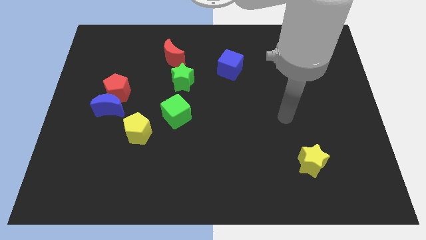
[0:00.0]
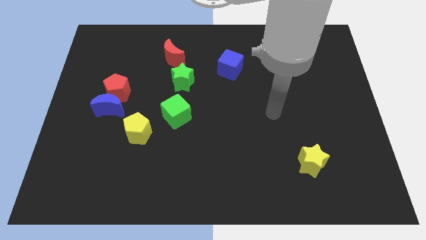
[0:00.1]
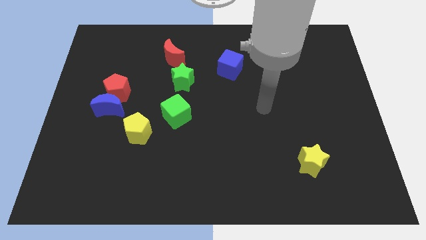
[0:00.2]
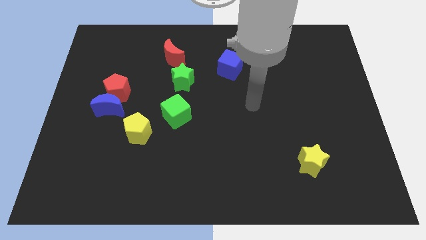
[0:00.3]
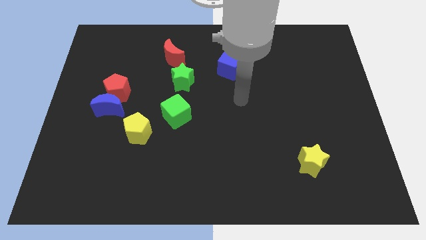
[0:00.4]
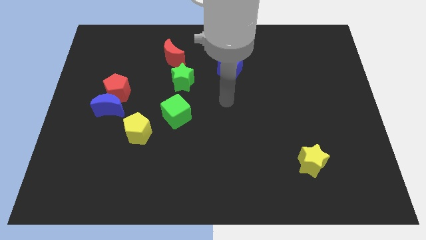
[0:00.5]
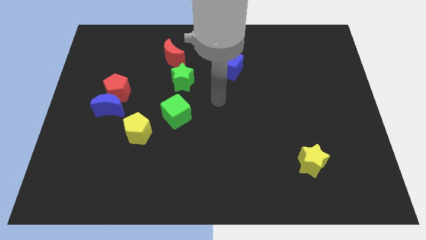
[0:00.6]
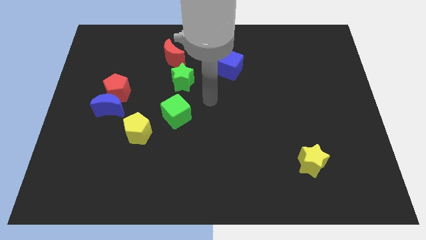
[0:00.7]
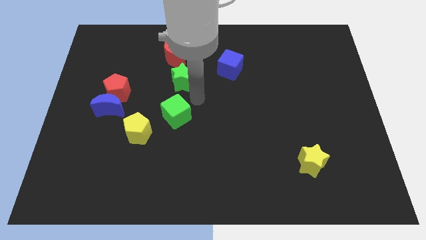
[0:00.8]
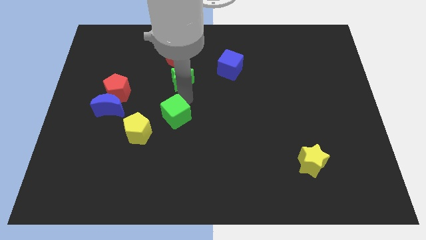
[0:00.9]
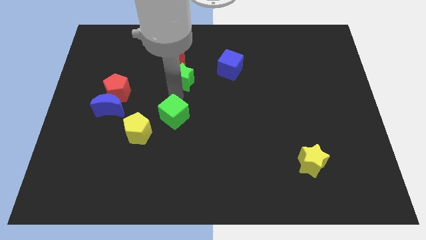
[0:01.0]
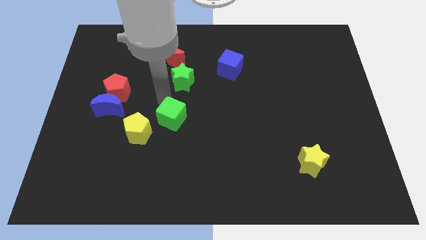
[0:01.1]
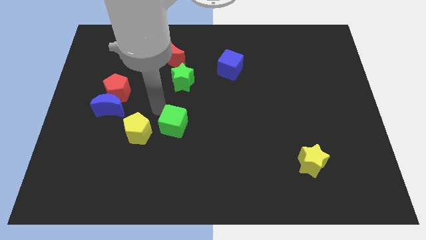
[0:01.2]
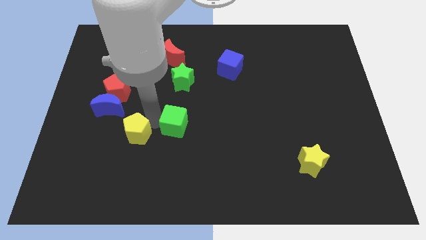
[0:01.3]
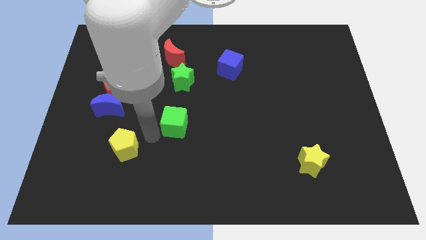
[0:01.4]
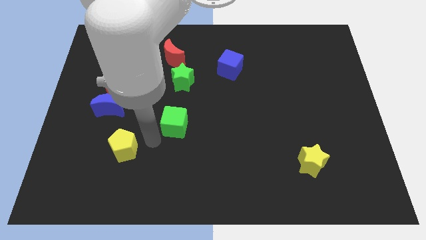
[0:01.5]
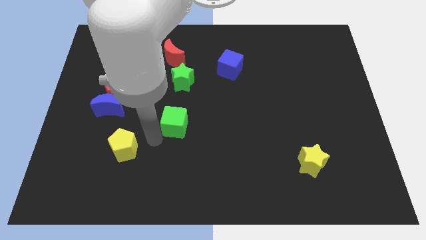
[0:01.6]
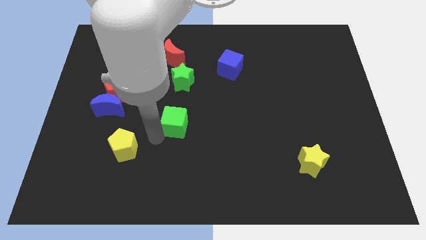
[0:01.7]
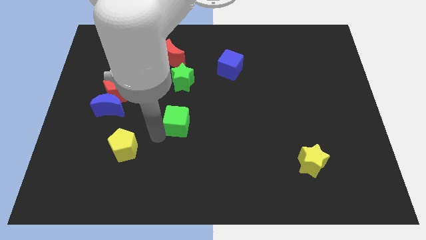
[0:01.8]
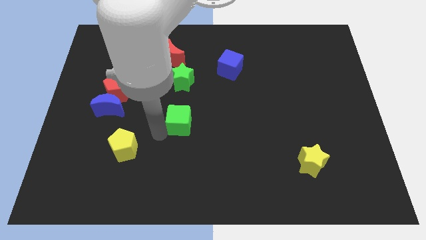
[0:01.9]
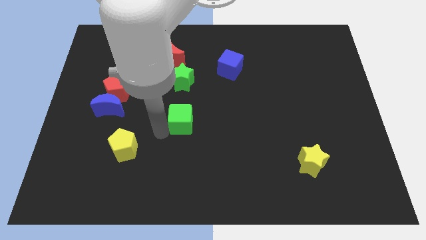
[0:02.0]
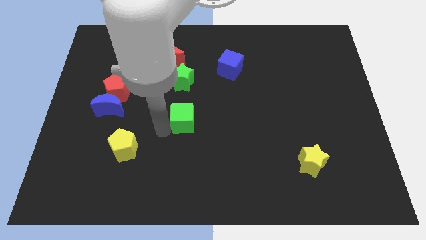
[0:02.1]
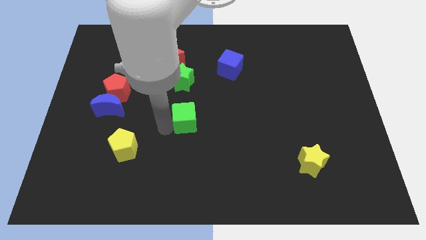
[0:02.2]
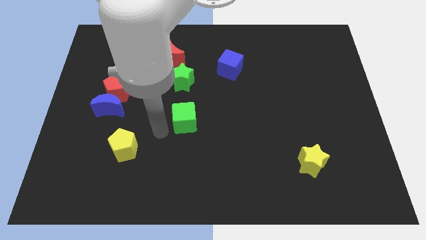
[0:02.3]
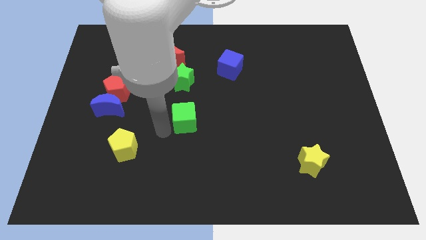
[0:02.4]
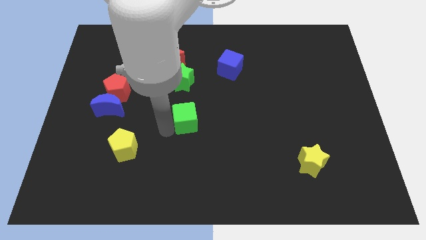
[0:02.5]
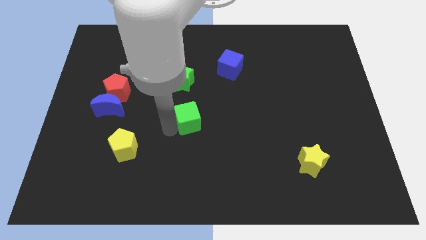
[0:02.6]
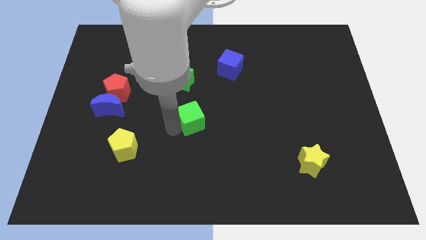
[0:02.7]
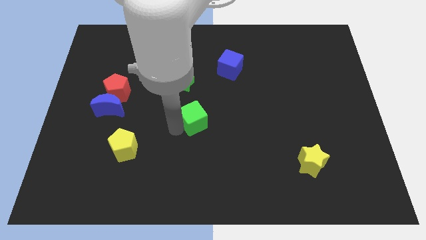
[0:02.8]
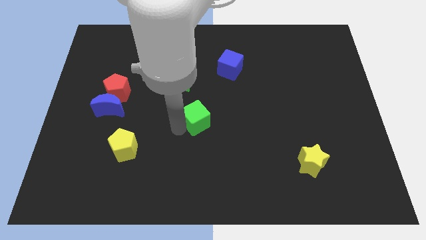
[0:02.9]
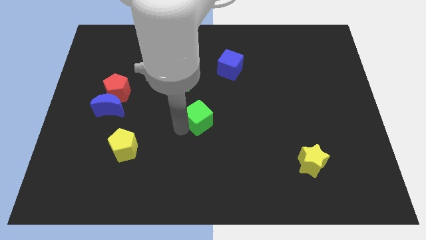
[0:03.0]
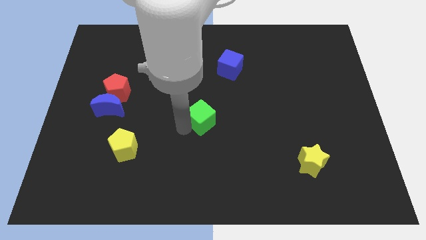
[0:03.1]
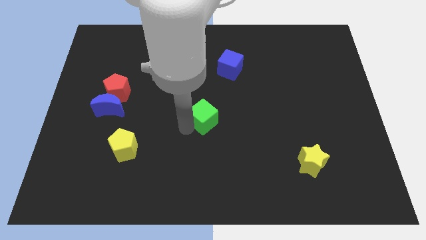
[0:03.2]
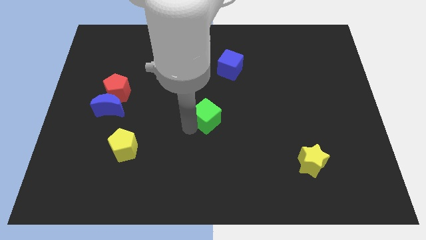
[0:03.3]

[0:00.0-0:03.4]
move the green cube to the right slightly

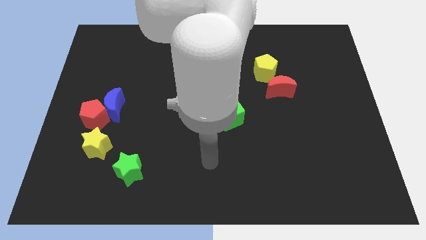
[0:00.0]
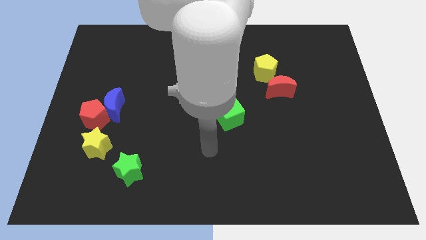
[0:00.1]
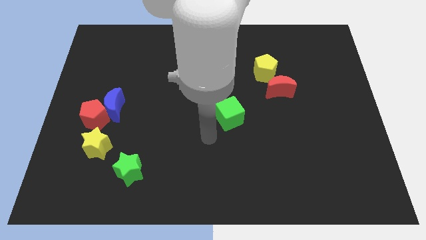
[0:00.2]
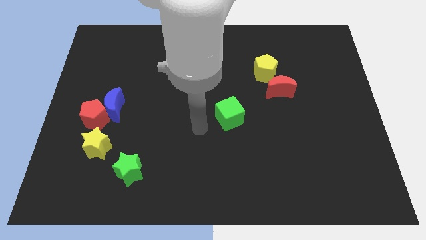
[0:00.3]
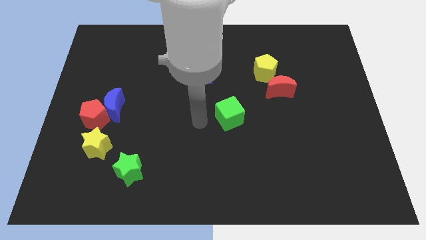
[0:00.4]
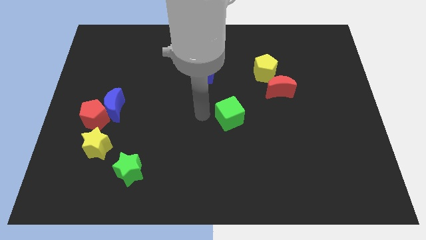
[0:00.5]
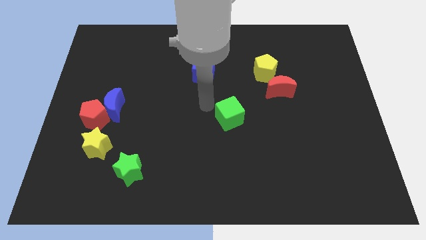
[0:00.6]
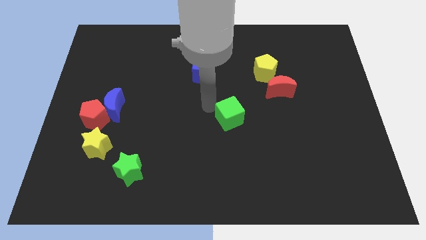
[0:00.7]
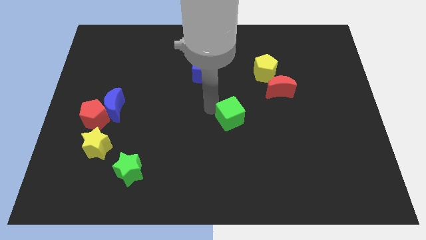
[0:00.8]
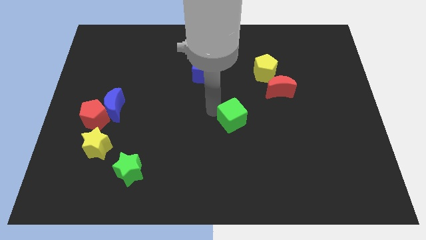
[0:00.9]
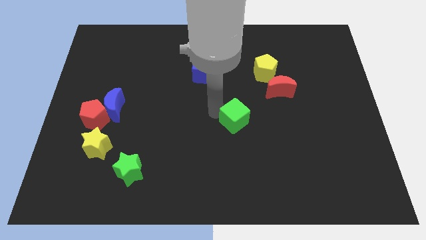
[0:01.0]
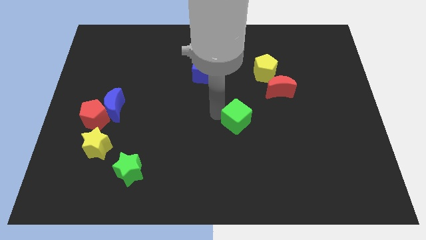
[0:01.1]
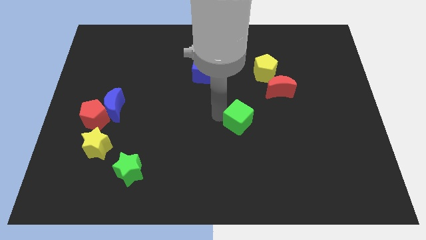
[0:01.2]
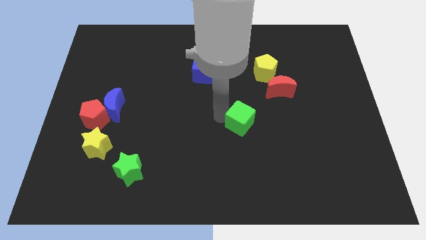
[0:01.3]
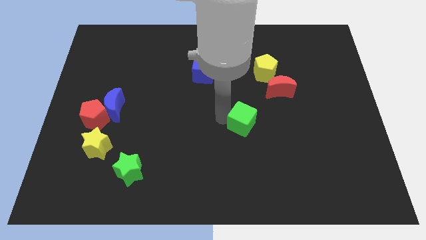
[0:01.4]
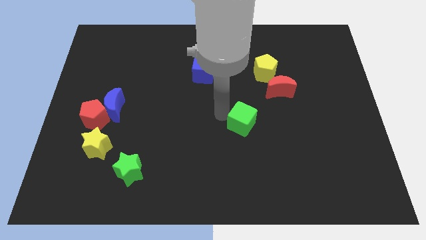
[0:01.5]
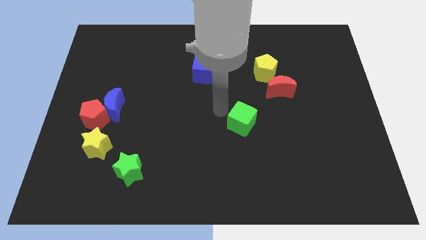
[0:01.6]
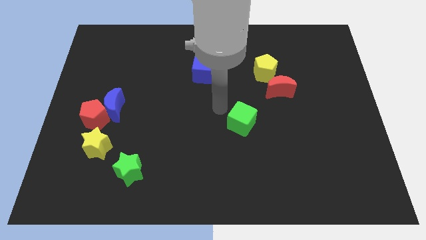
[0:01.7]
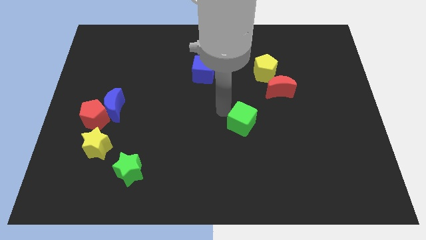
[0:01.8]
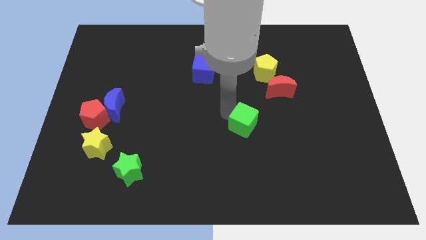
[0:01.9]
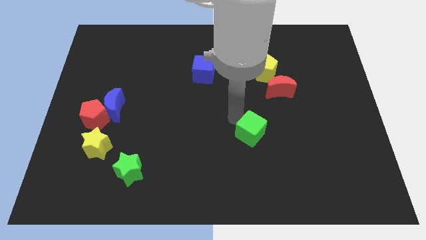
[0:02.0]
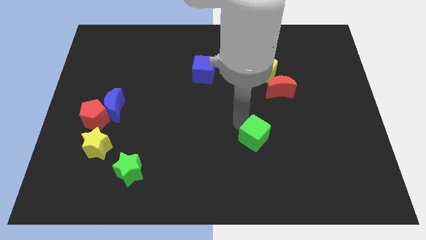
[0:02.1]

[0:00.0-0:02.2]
slightly move the green cube downwards and then right

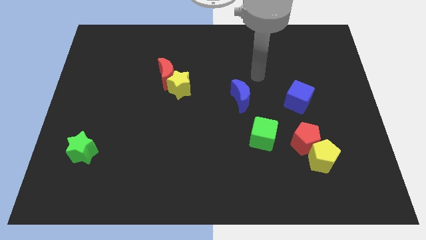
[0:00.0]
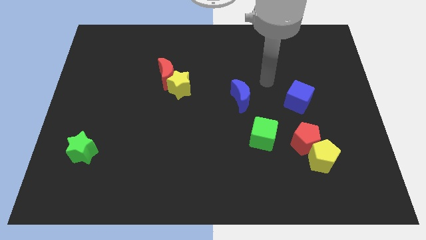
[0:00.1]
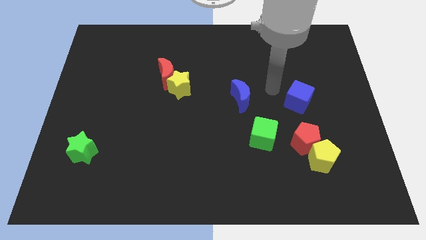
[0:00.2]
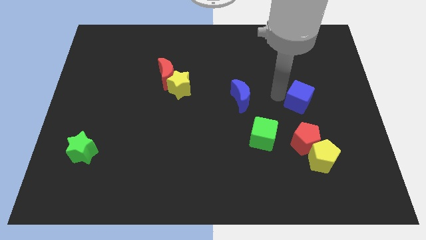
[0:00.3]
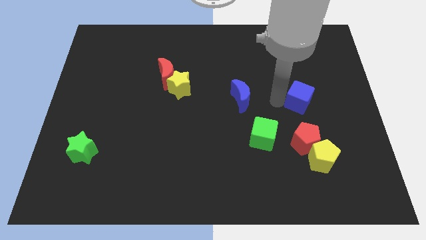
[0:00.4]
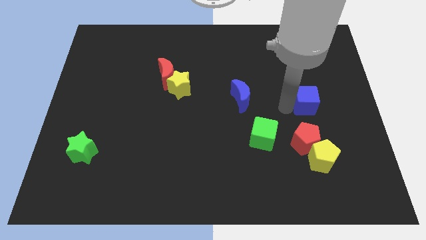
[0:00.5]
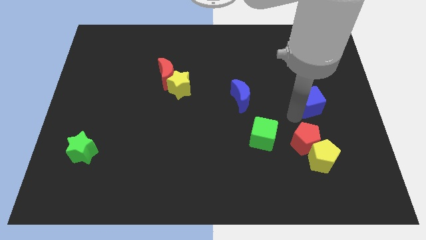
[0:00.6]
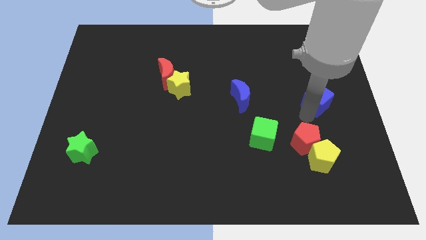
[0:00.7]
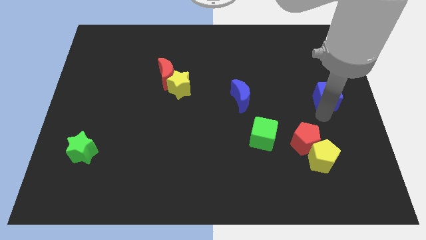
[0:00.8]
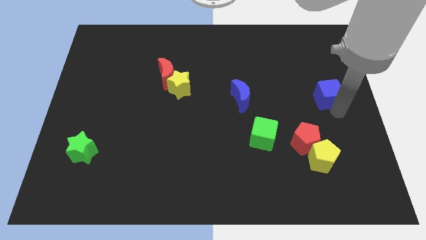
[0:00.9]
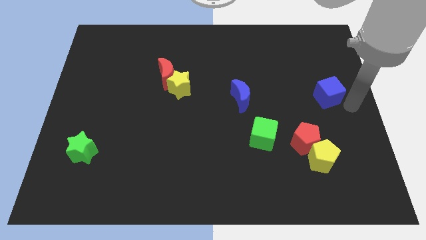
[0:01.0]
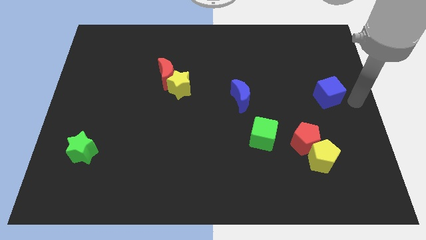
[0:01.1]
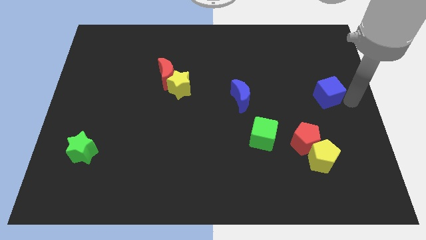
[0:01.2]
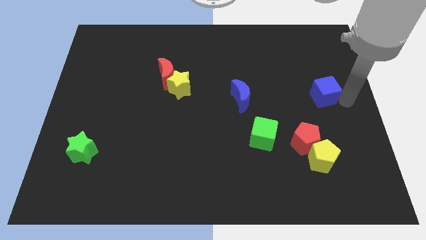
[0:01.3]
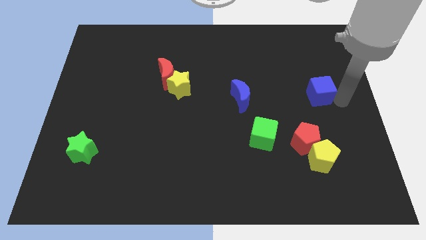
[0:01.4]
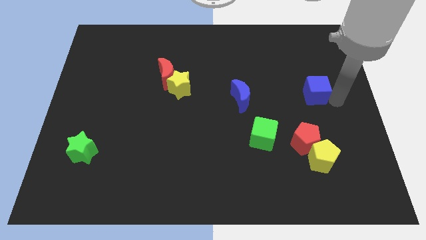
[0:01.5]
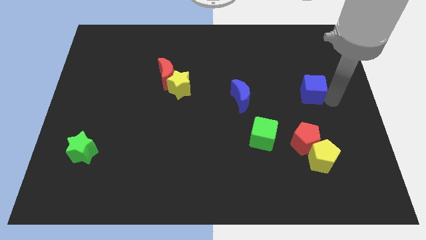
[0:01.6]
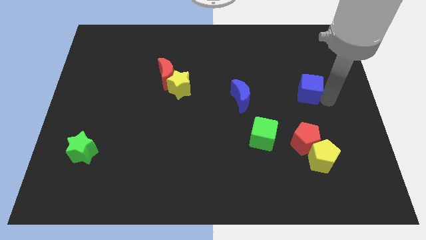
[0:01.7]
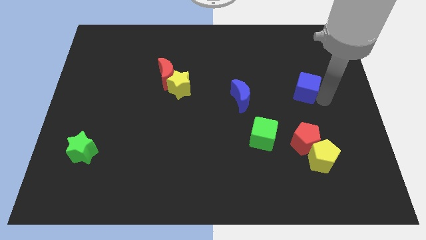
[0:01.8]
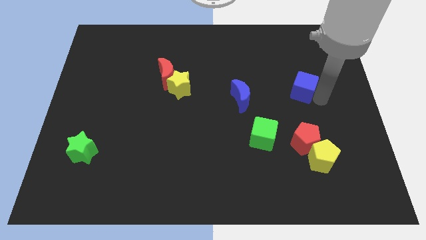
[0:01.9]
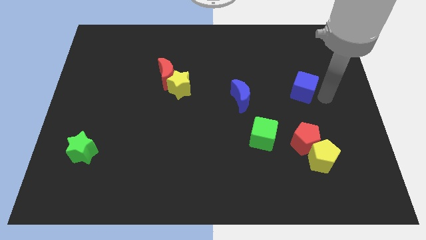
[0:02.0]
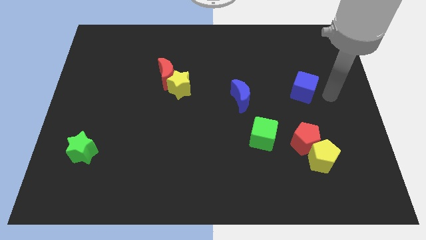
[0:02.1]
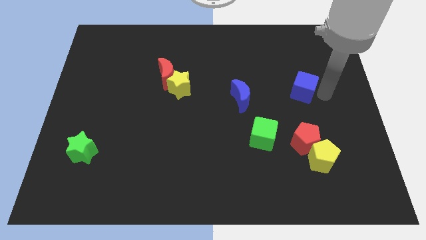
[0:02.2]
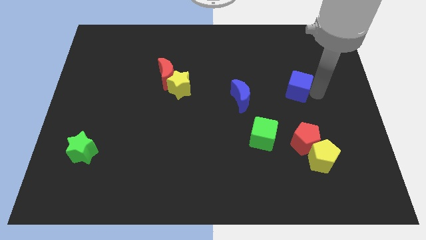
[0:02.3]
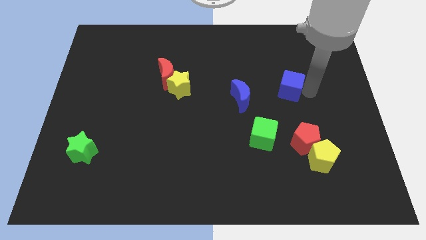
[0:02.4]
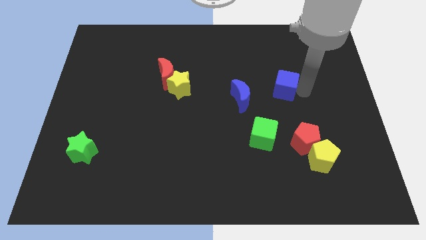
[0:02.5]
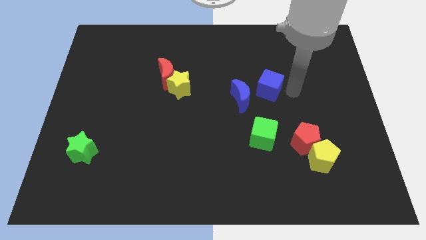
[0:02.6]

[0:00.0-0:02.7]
slide the blue cube upwards and then left somewhat

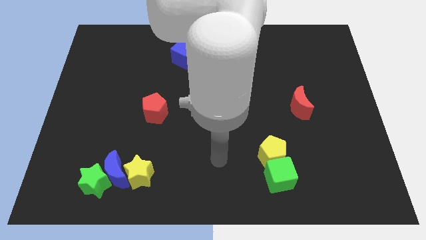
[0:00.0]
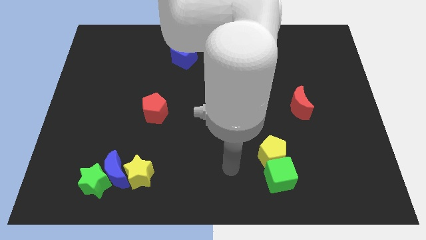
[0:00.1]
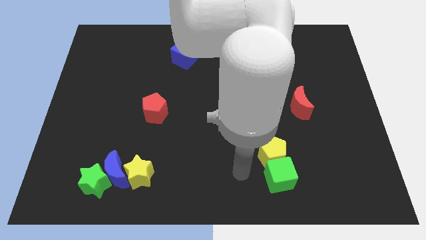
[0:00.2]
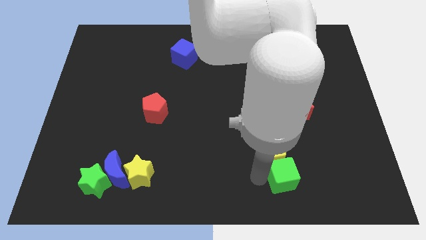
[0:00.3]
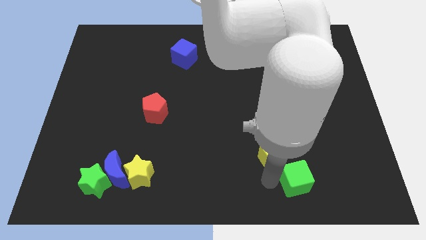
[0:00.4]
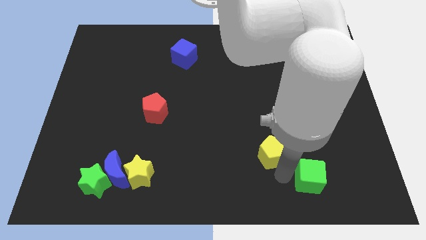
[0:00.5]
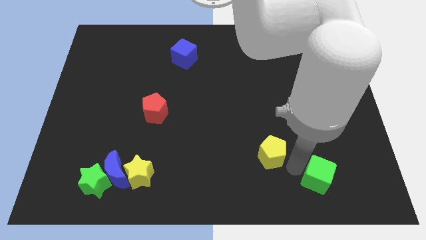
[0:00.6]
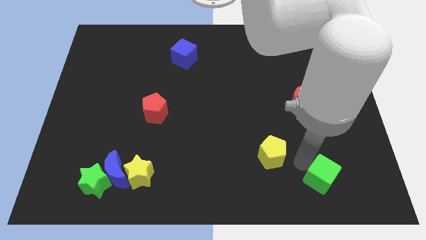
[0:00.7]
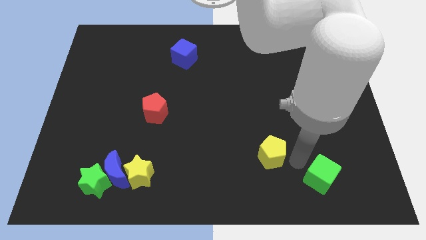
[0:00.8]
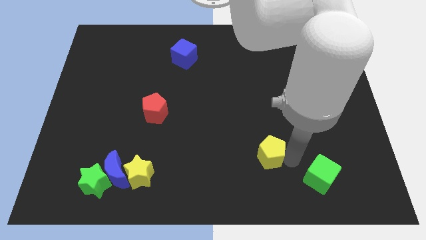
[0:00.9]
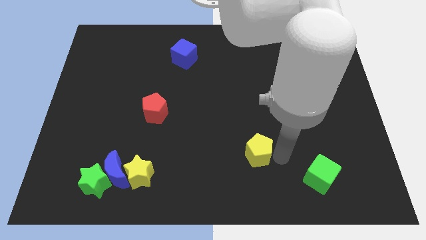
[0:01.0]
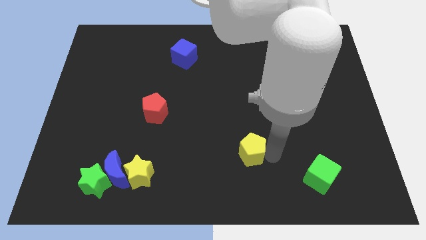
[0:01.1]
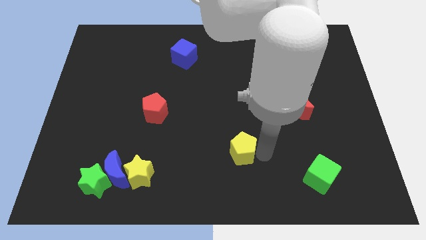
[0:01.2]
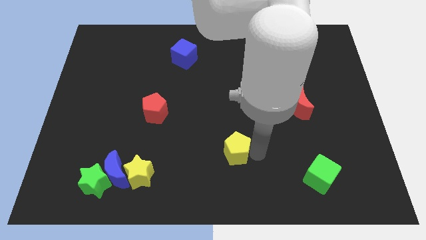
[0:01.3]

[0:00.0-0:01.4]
push the yellow pentagon to the left slightly
